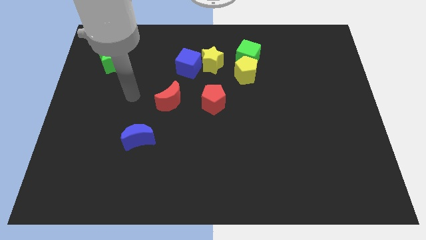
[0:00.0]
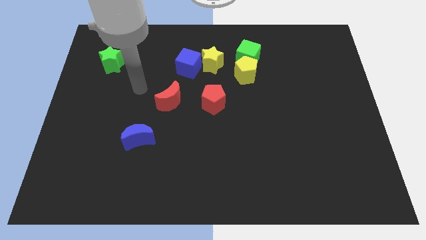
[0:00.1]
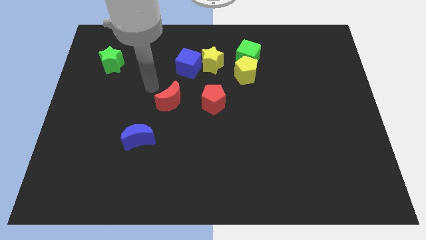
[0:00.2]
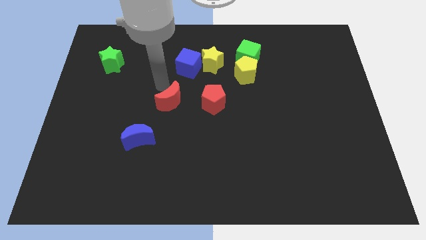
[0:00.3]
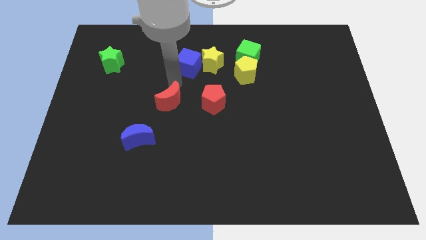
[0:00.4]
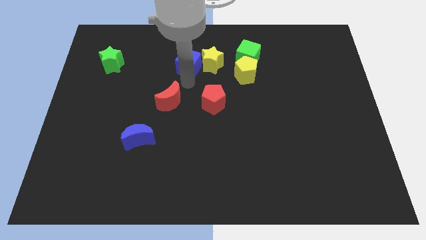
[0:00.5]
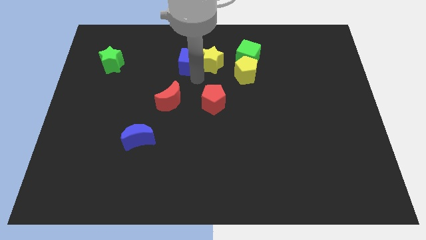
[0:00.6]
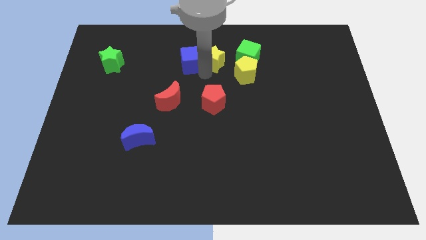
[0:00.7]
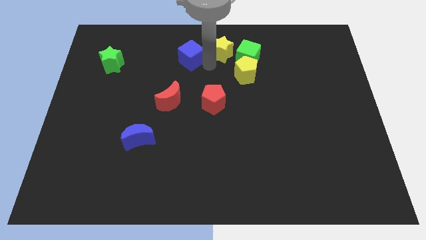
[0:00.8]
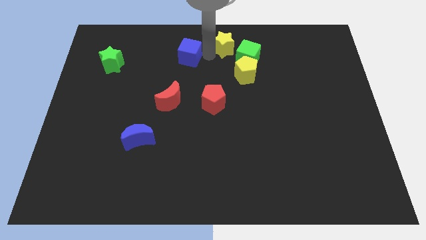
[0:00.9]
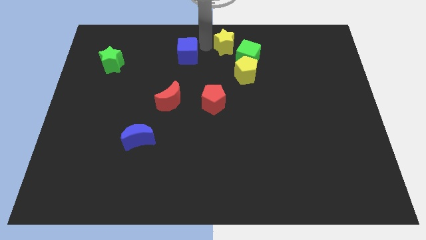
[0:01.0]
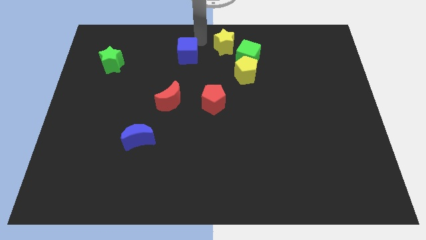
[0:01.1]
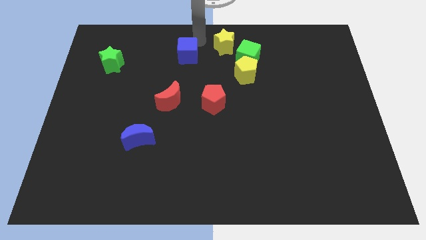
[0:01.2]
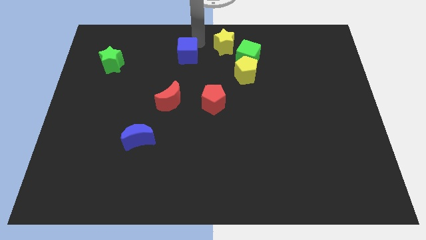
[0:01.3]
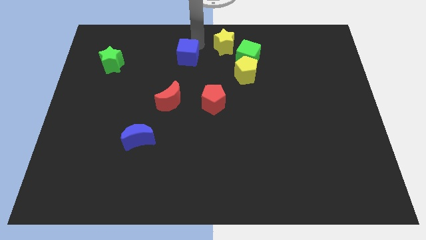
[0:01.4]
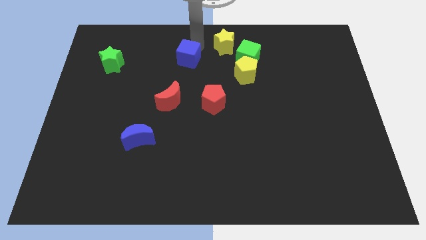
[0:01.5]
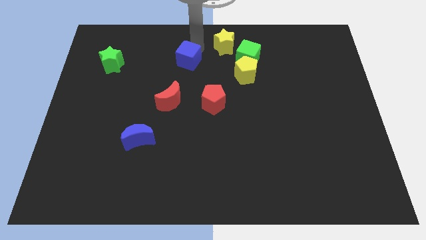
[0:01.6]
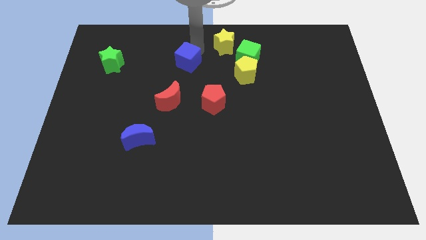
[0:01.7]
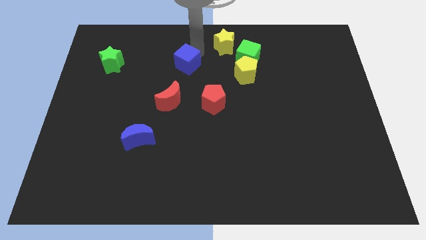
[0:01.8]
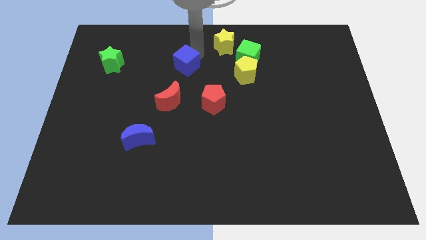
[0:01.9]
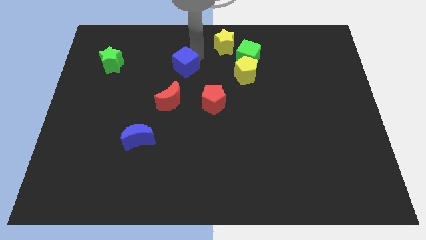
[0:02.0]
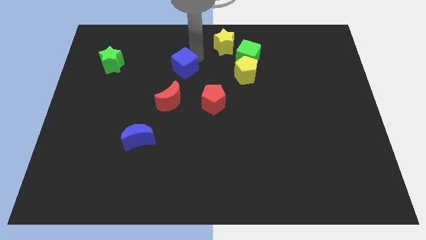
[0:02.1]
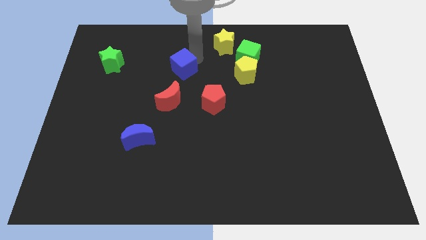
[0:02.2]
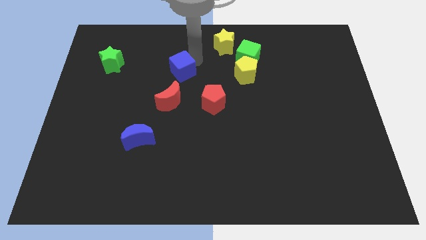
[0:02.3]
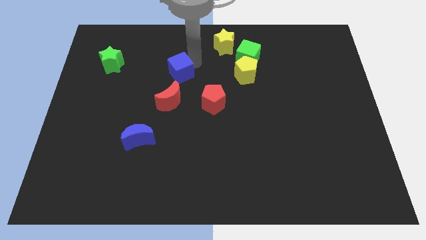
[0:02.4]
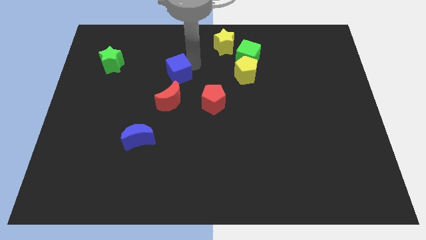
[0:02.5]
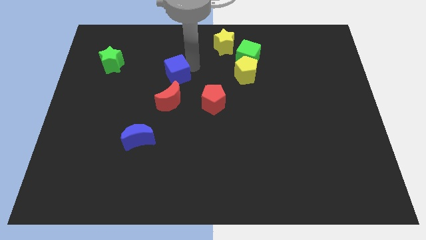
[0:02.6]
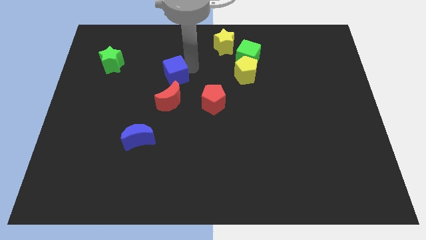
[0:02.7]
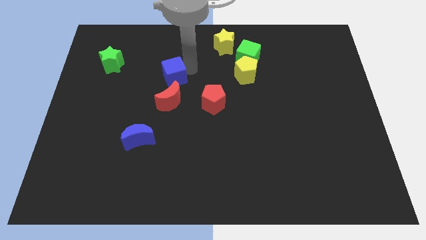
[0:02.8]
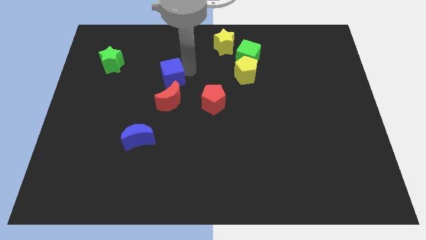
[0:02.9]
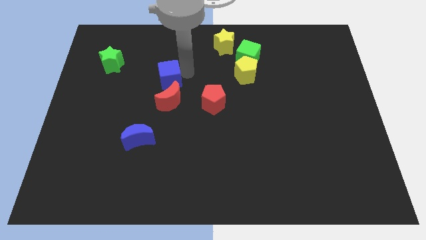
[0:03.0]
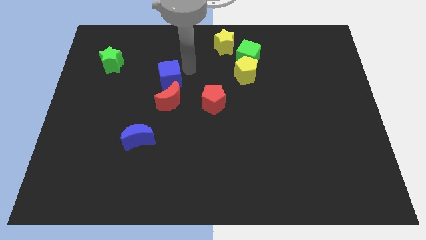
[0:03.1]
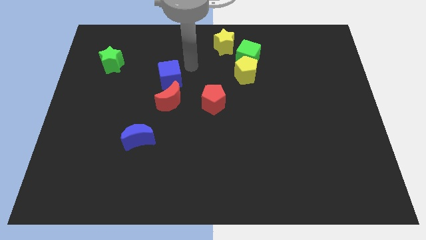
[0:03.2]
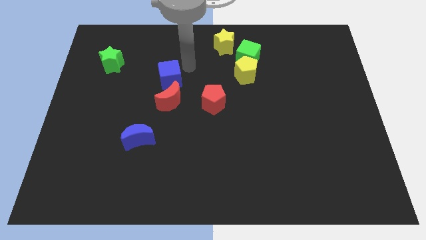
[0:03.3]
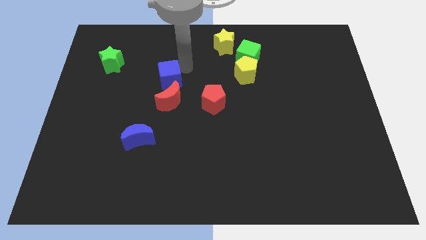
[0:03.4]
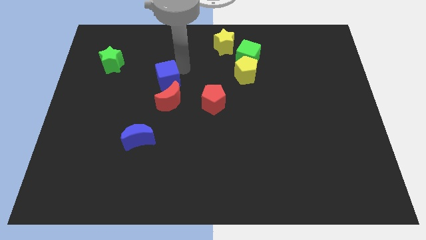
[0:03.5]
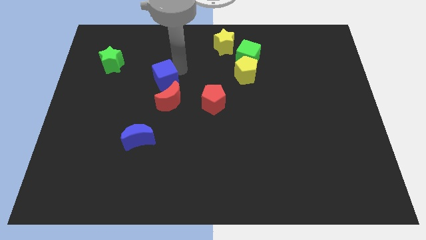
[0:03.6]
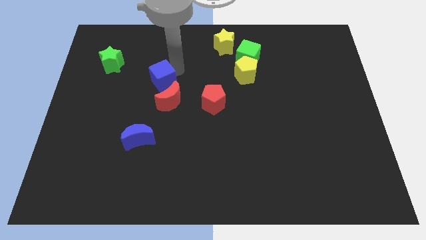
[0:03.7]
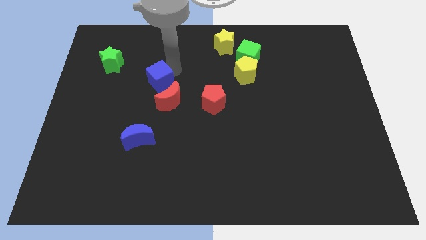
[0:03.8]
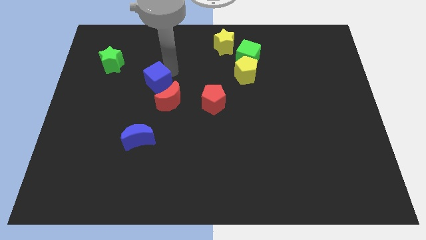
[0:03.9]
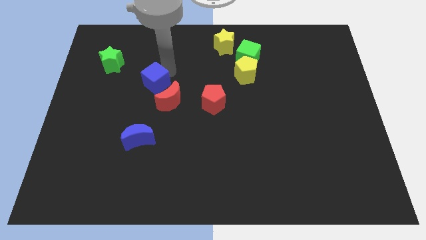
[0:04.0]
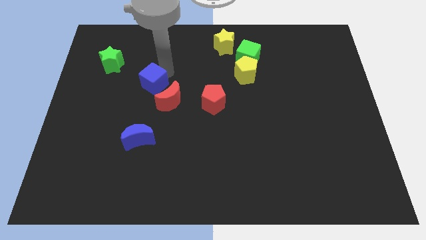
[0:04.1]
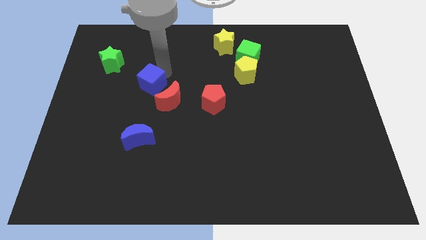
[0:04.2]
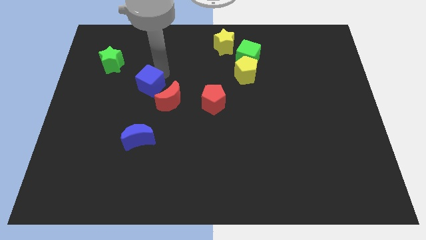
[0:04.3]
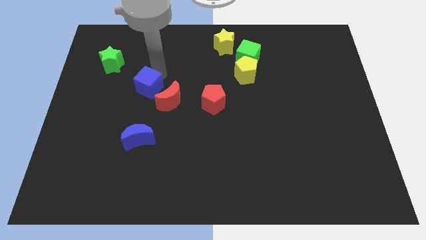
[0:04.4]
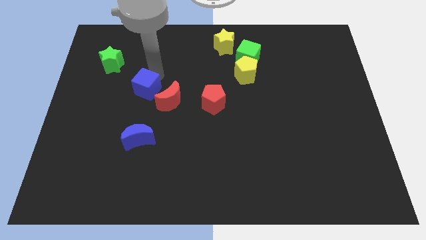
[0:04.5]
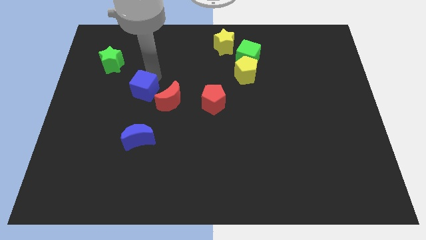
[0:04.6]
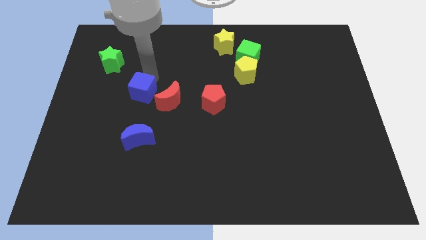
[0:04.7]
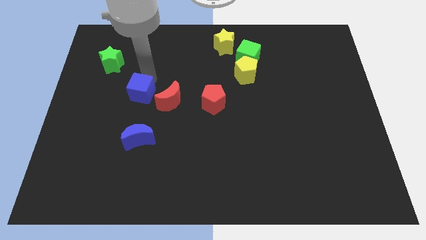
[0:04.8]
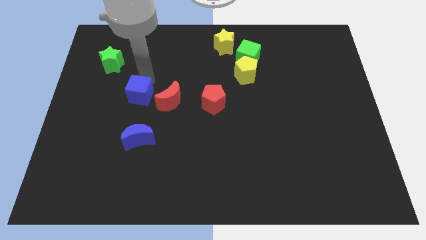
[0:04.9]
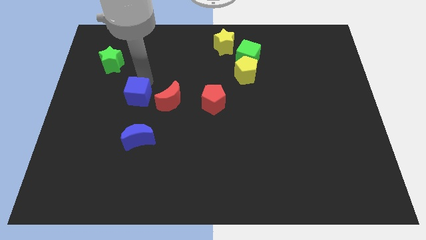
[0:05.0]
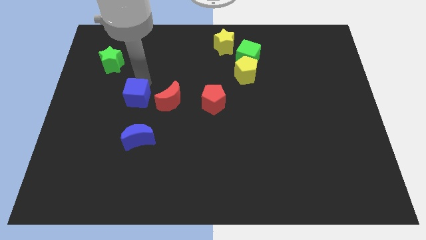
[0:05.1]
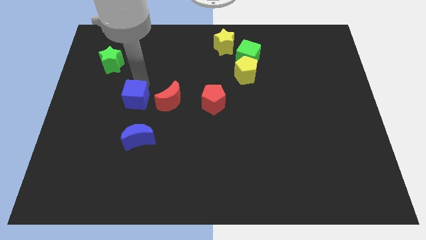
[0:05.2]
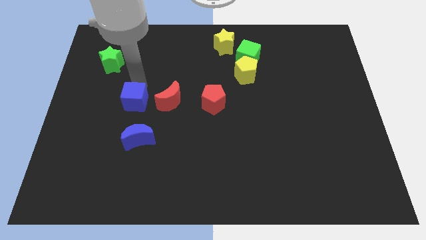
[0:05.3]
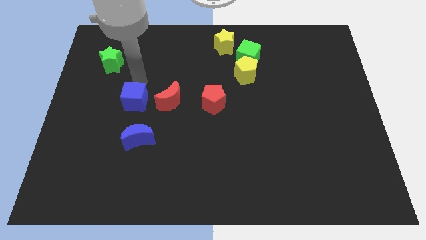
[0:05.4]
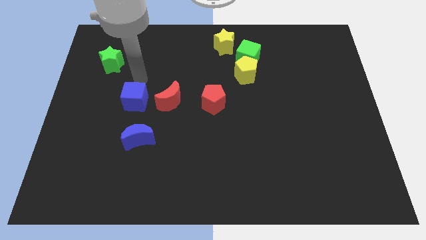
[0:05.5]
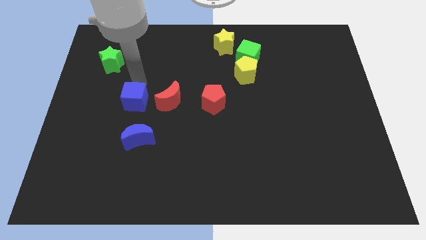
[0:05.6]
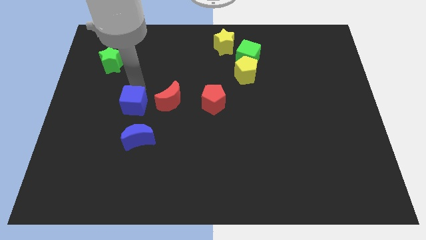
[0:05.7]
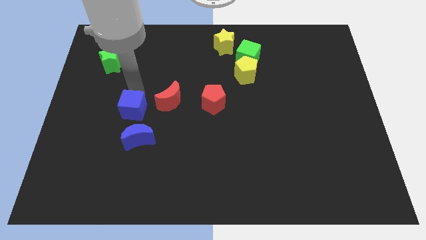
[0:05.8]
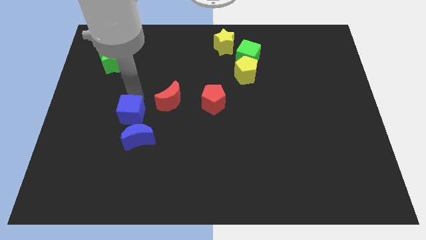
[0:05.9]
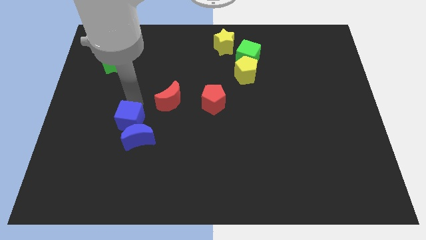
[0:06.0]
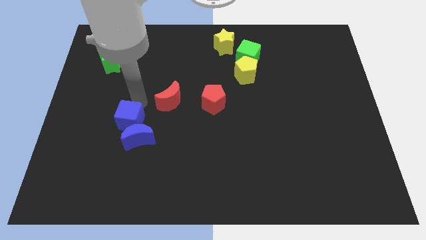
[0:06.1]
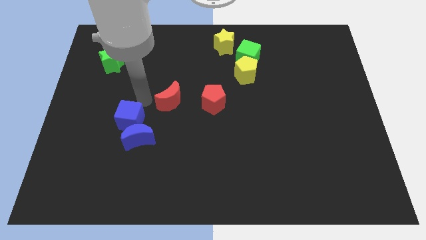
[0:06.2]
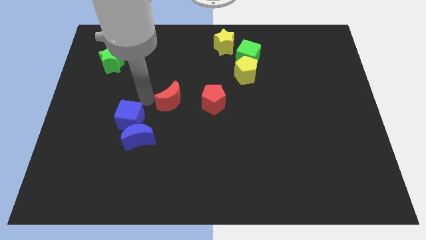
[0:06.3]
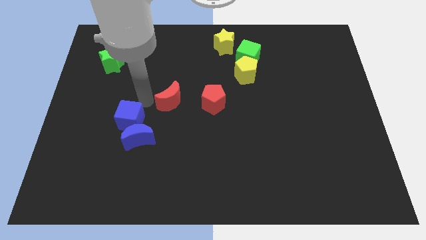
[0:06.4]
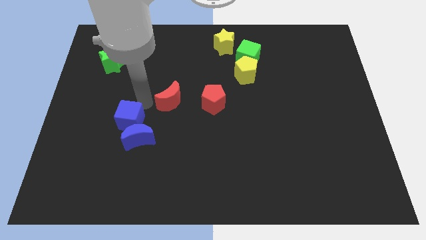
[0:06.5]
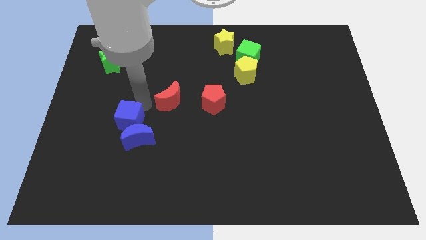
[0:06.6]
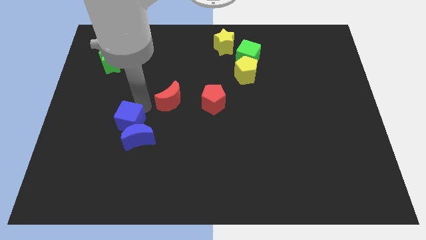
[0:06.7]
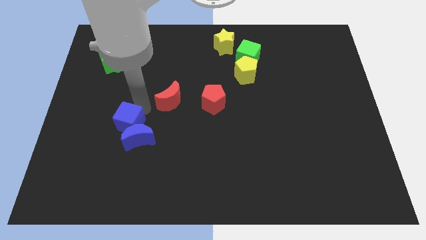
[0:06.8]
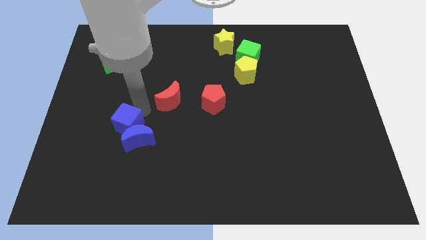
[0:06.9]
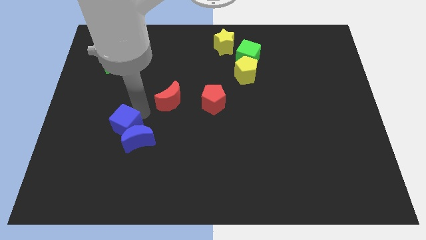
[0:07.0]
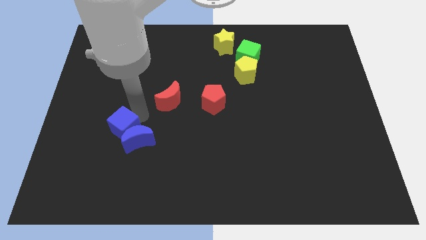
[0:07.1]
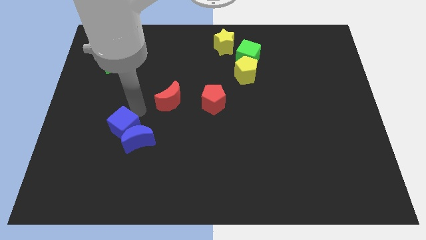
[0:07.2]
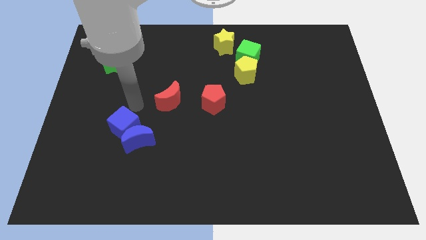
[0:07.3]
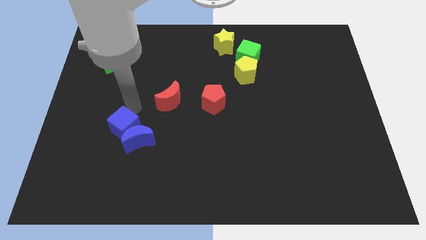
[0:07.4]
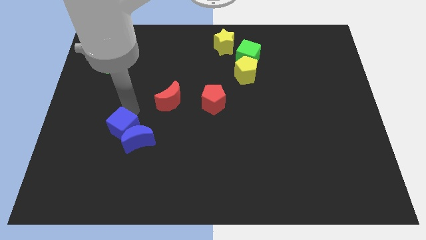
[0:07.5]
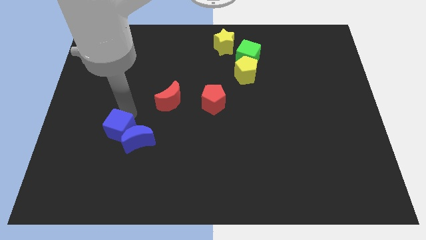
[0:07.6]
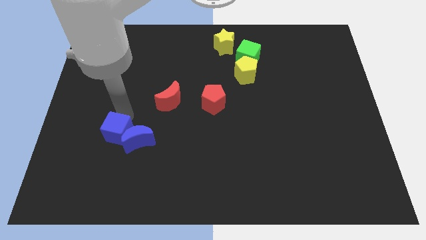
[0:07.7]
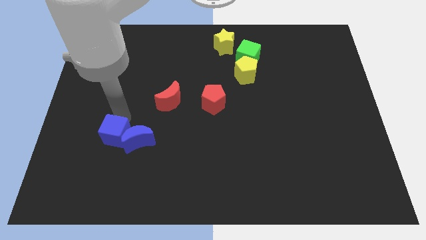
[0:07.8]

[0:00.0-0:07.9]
slide the blue cube diagonally down and to the left of the blue moon
